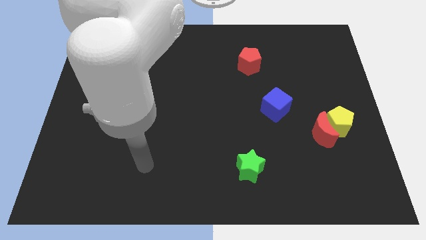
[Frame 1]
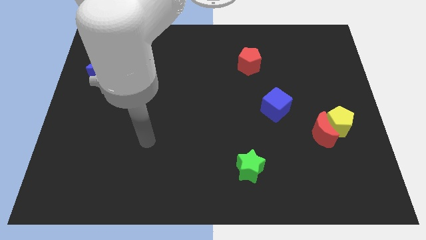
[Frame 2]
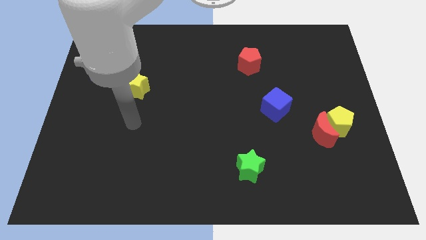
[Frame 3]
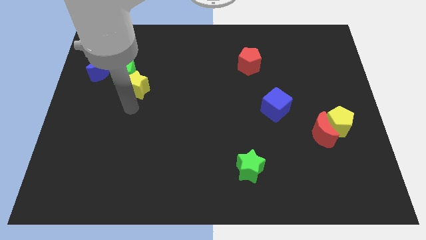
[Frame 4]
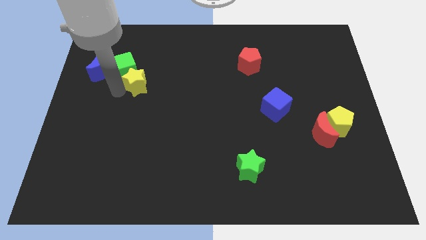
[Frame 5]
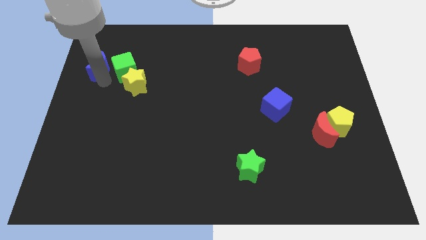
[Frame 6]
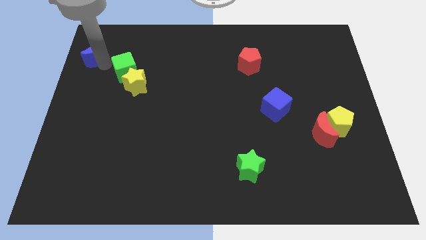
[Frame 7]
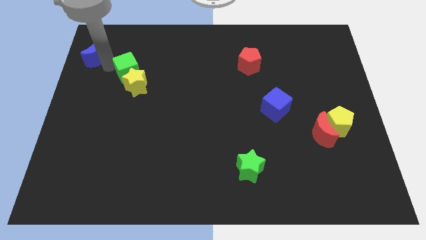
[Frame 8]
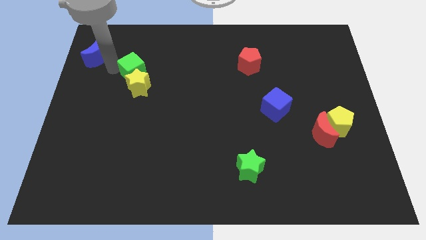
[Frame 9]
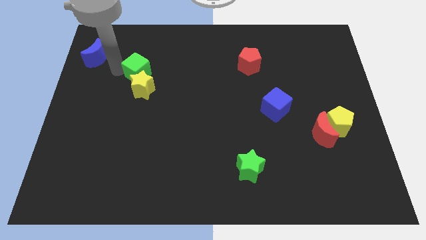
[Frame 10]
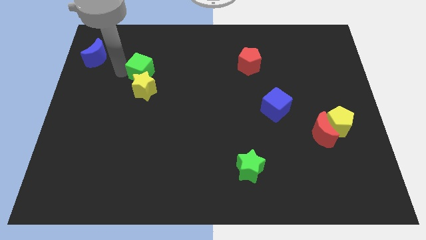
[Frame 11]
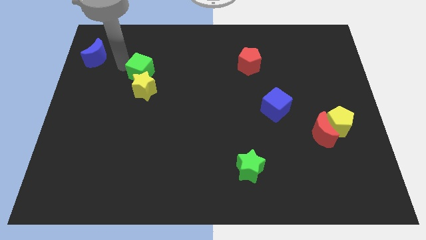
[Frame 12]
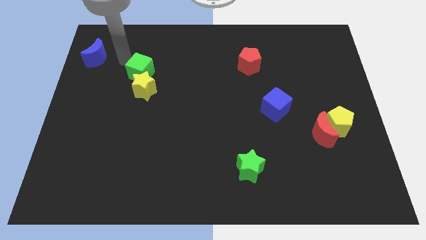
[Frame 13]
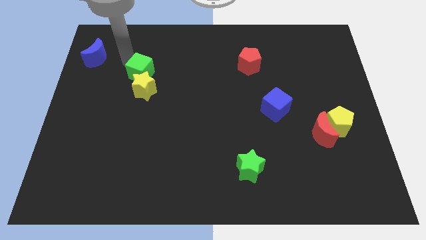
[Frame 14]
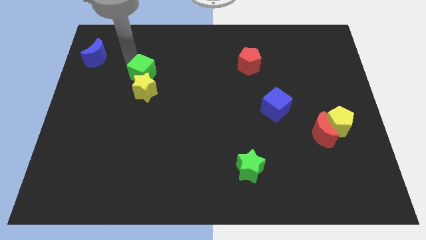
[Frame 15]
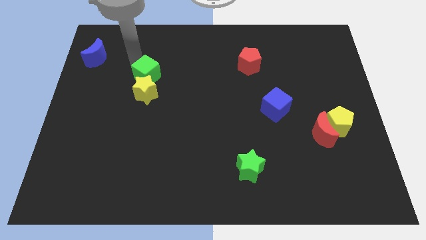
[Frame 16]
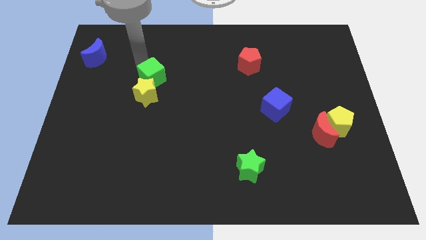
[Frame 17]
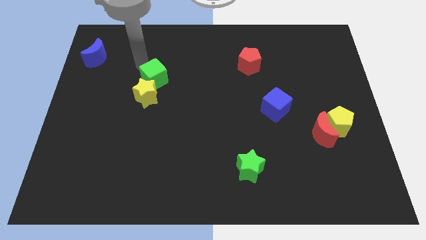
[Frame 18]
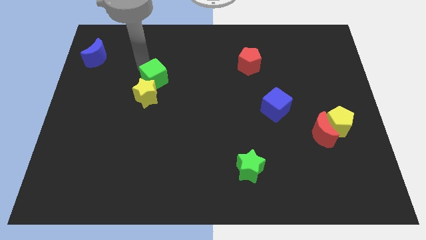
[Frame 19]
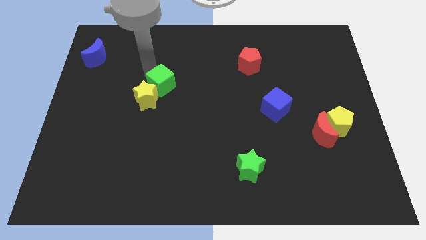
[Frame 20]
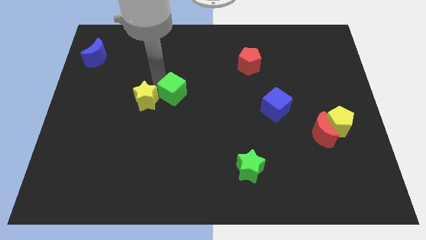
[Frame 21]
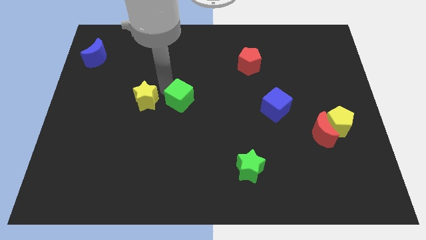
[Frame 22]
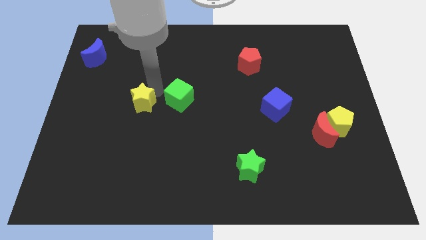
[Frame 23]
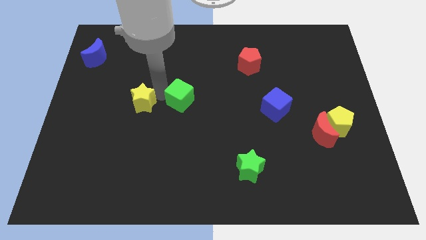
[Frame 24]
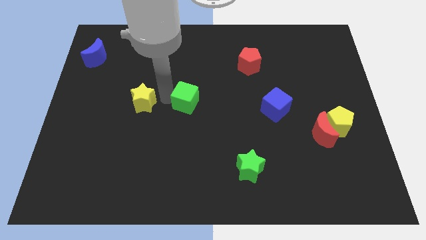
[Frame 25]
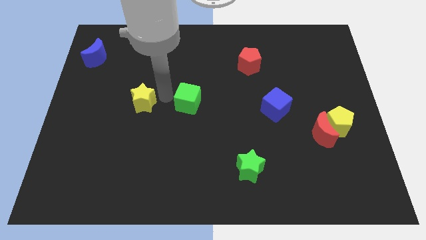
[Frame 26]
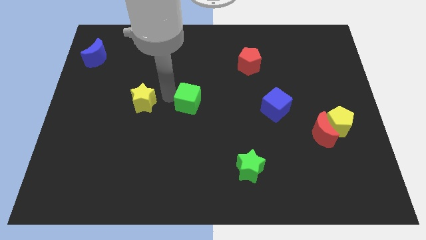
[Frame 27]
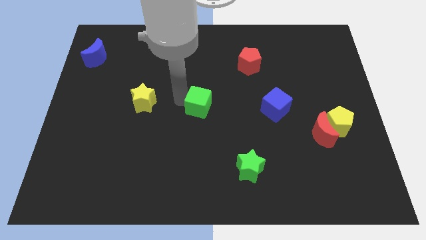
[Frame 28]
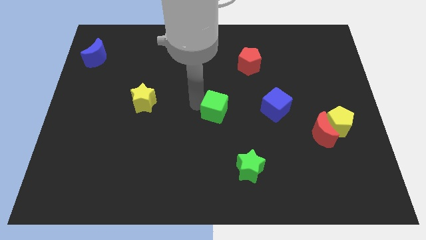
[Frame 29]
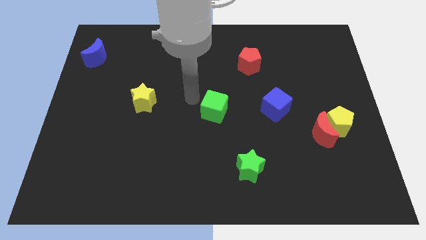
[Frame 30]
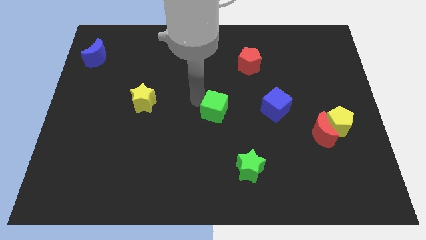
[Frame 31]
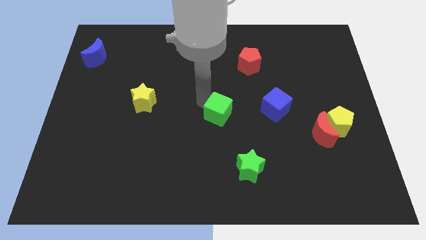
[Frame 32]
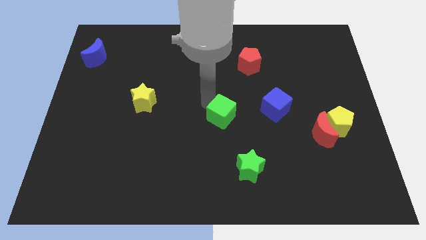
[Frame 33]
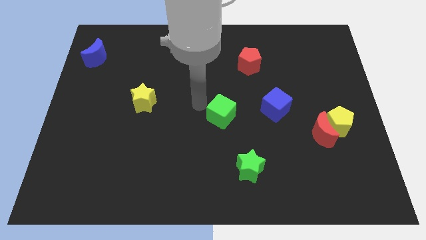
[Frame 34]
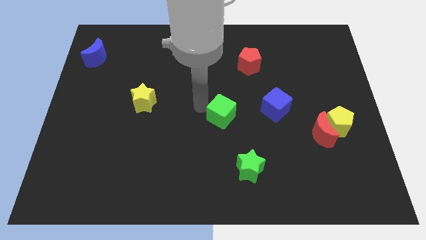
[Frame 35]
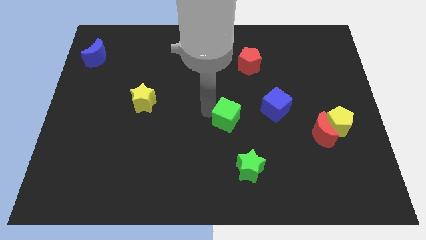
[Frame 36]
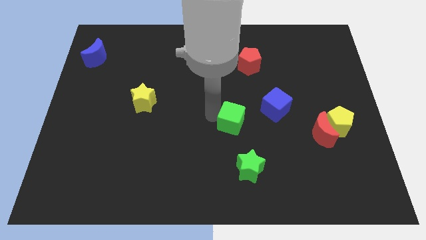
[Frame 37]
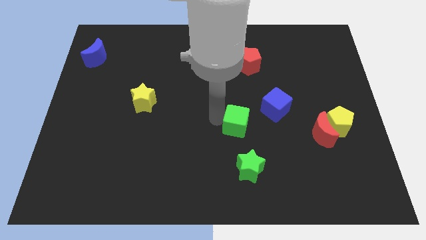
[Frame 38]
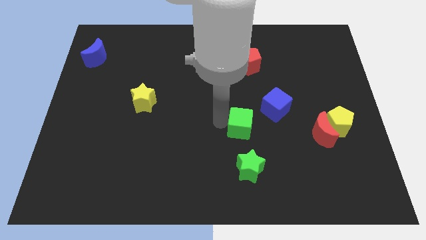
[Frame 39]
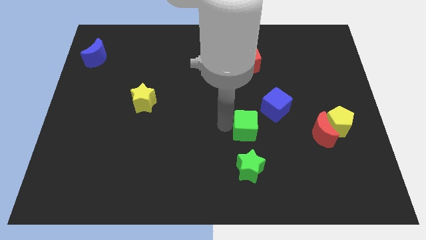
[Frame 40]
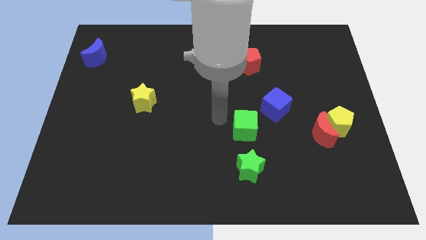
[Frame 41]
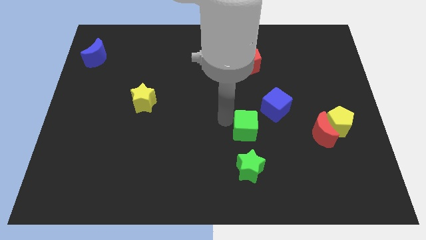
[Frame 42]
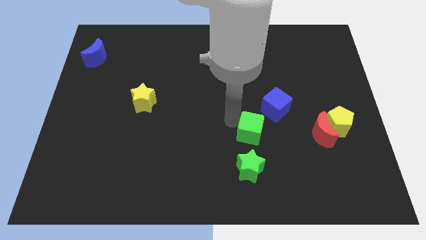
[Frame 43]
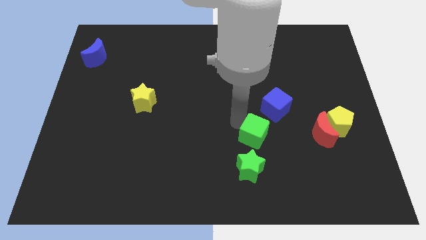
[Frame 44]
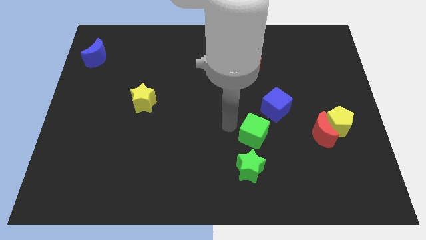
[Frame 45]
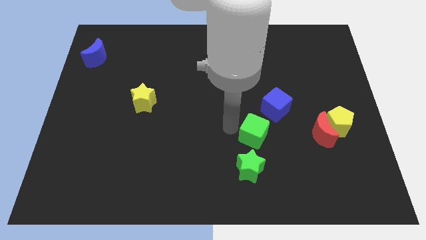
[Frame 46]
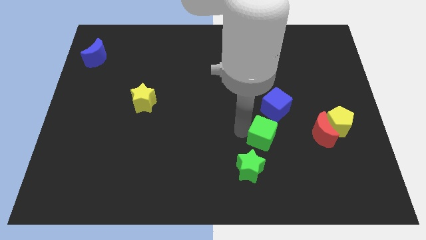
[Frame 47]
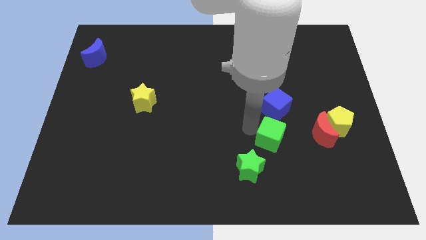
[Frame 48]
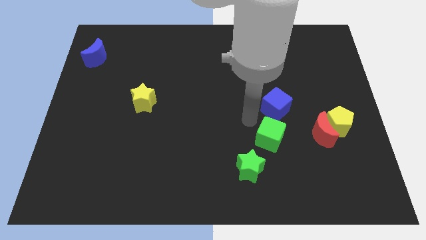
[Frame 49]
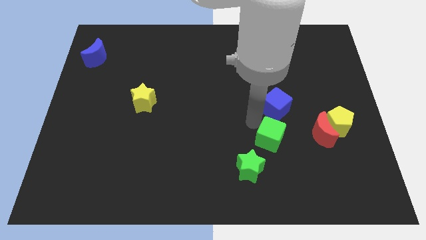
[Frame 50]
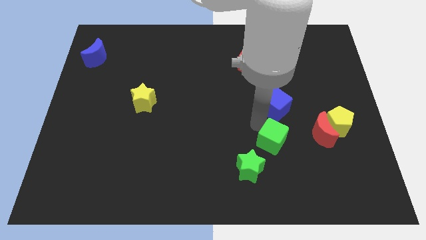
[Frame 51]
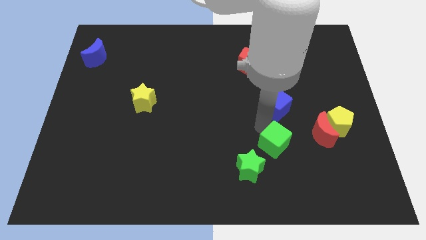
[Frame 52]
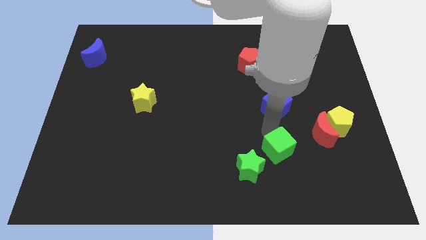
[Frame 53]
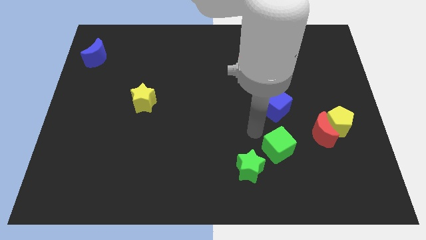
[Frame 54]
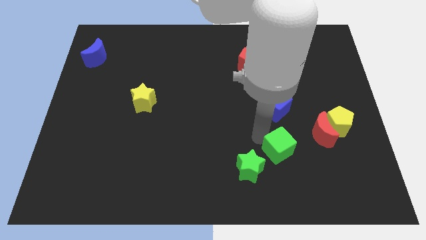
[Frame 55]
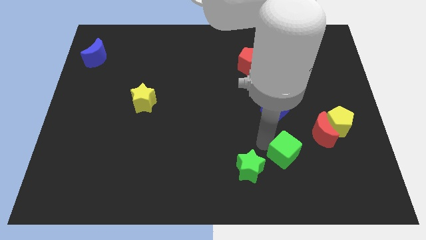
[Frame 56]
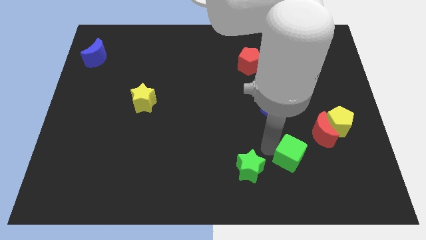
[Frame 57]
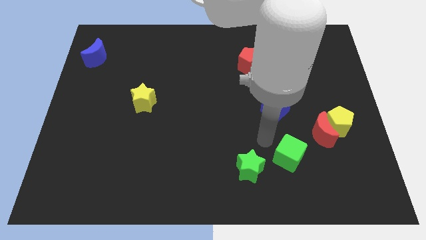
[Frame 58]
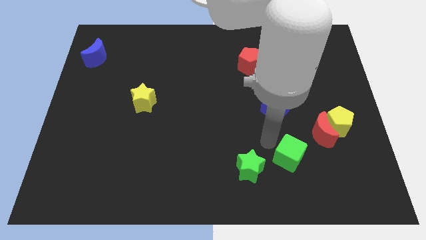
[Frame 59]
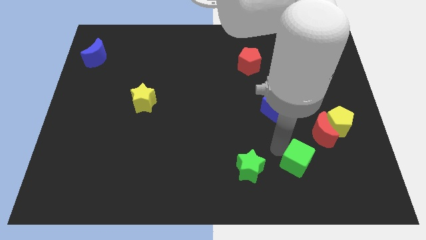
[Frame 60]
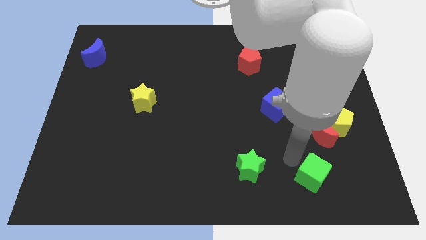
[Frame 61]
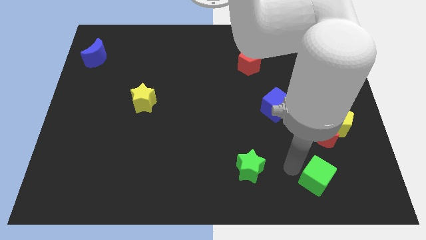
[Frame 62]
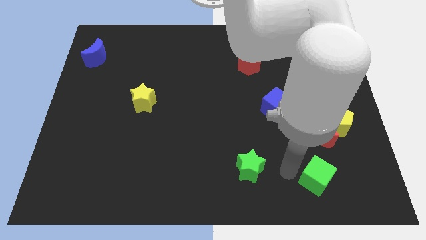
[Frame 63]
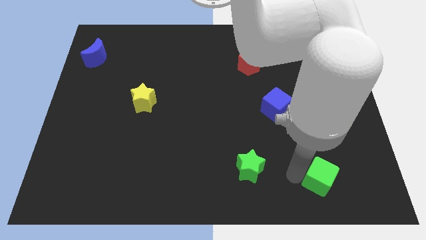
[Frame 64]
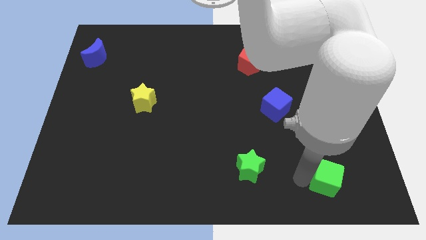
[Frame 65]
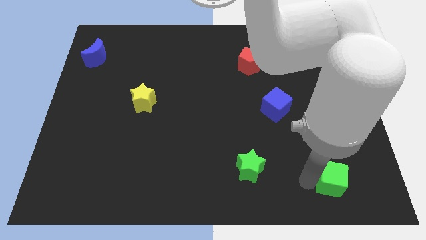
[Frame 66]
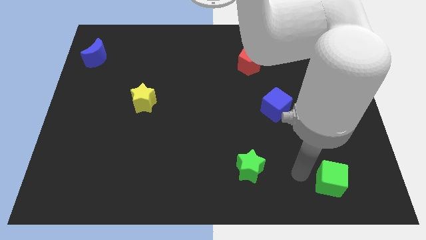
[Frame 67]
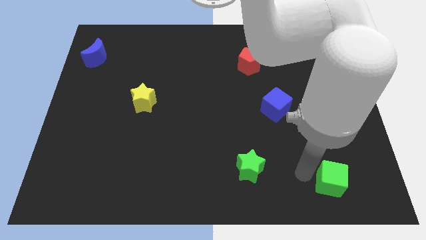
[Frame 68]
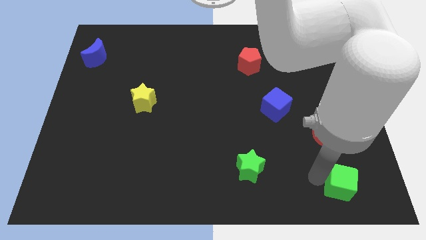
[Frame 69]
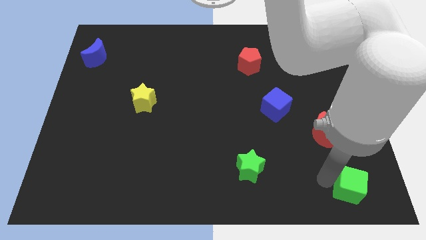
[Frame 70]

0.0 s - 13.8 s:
move the green cube to the lower right corner
